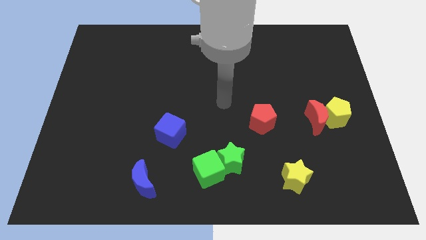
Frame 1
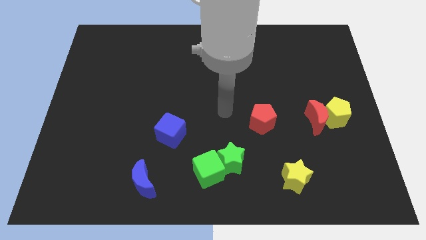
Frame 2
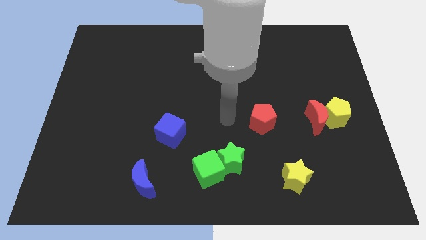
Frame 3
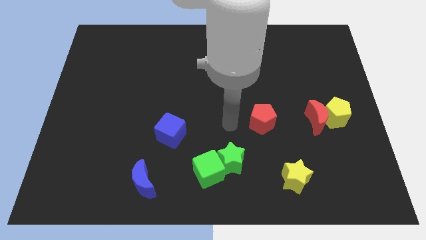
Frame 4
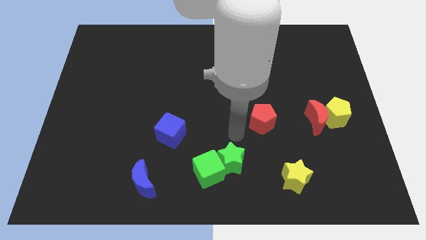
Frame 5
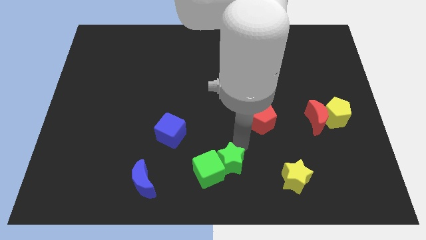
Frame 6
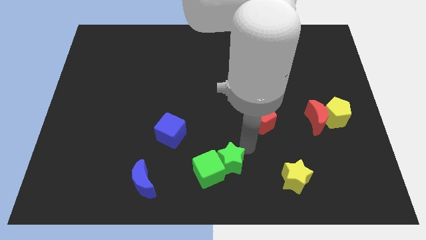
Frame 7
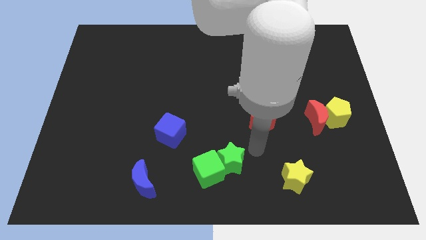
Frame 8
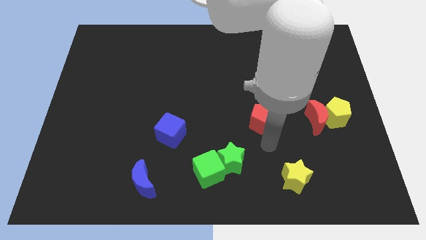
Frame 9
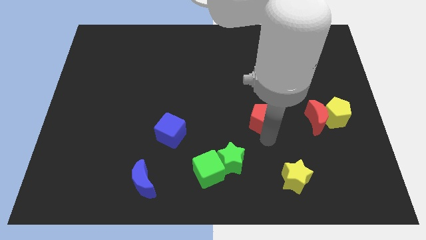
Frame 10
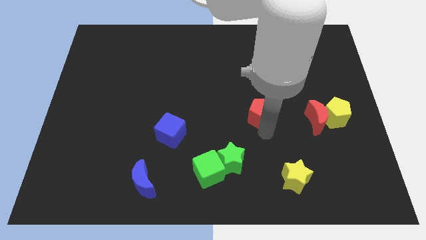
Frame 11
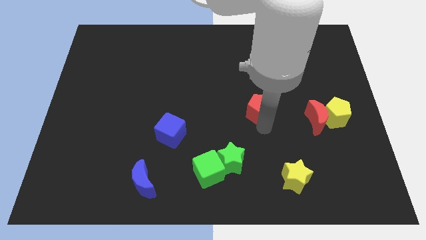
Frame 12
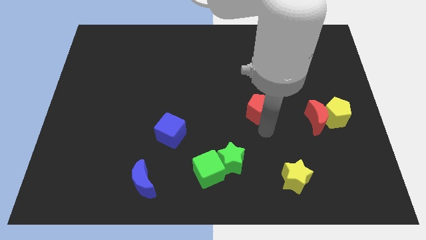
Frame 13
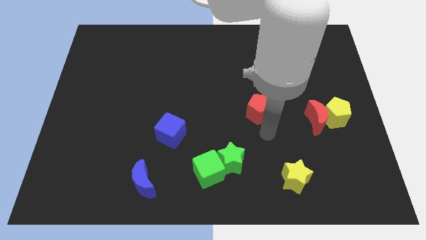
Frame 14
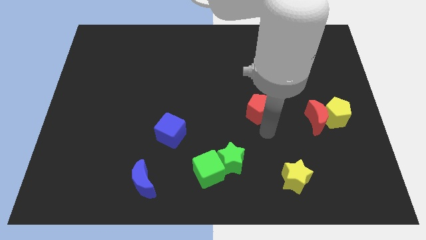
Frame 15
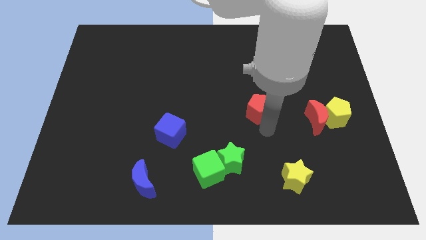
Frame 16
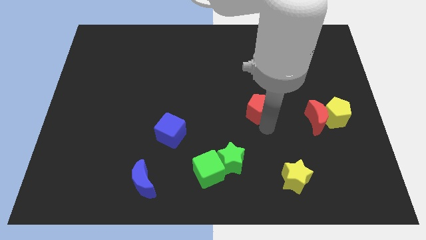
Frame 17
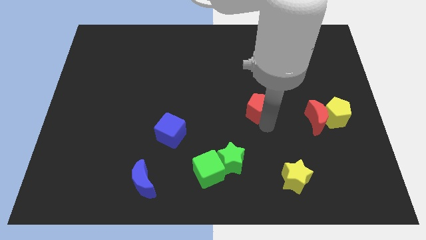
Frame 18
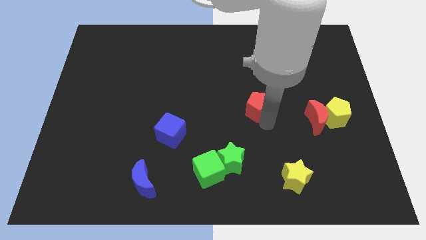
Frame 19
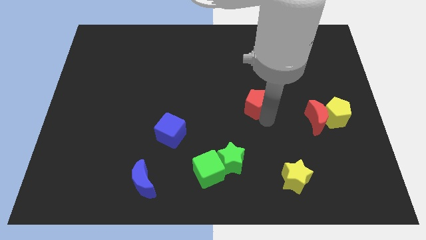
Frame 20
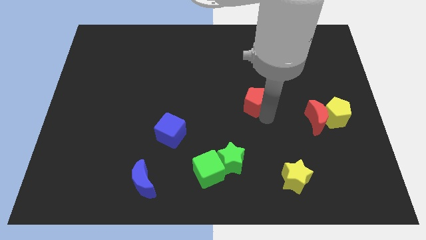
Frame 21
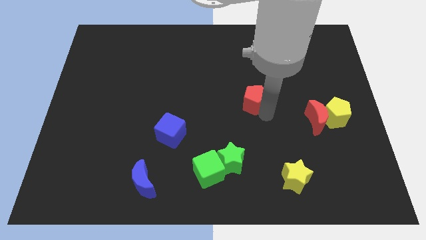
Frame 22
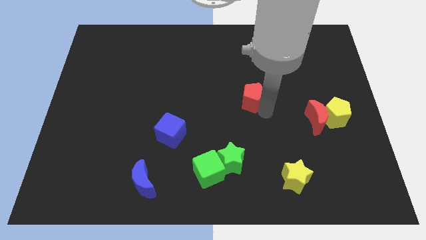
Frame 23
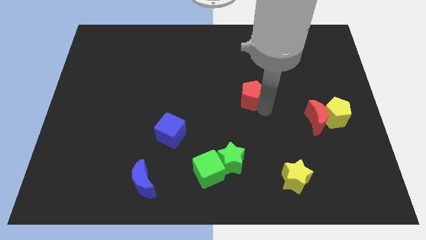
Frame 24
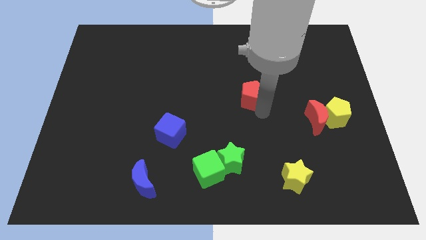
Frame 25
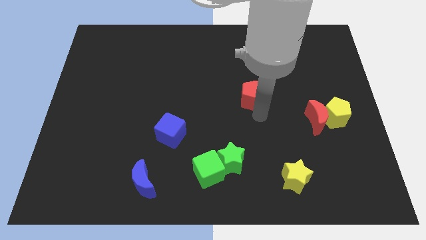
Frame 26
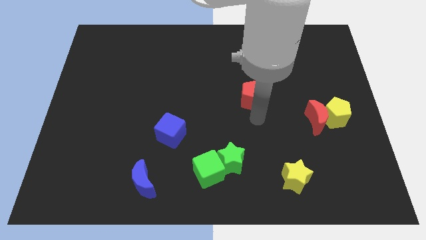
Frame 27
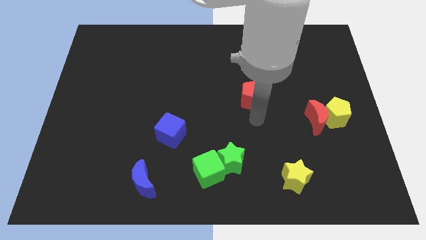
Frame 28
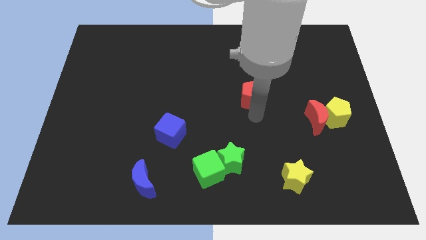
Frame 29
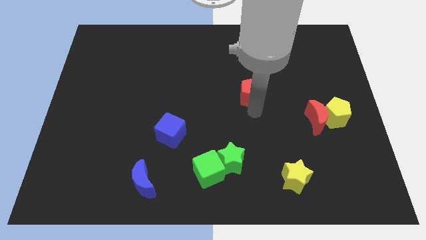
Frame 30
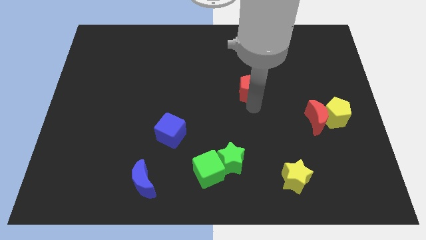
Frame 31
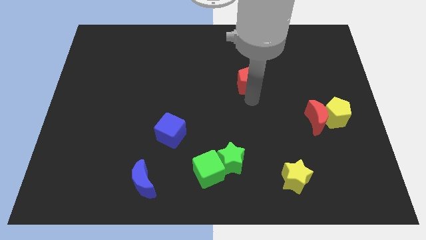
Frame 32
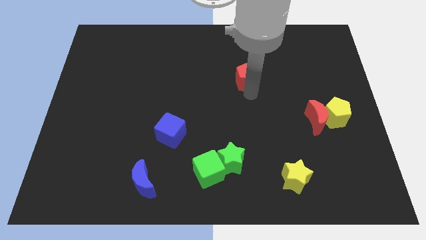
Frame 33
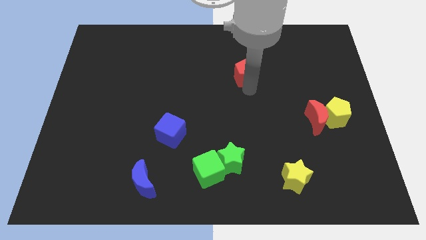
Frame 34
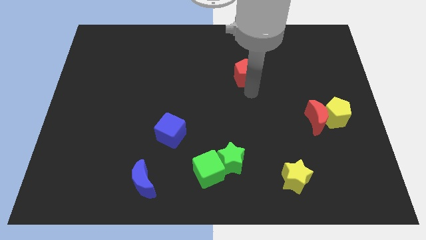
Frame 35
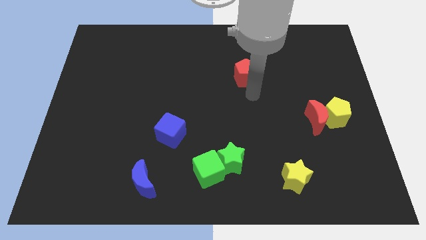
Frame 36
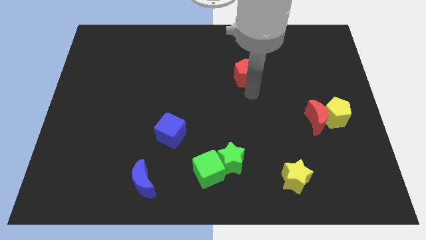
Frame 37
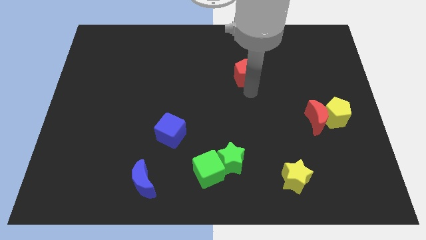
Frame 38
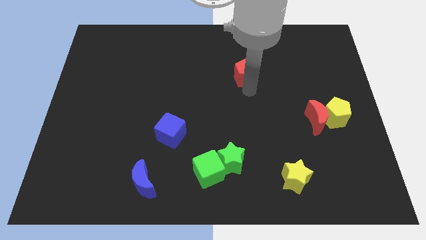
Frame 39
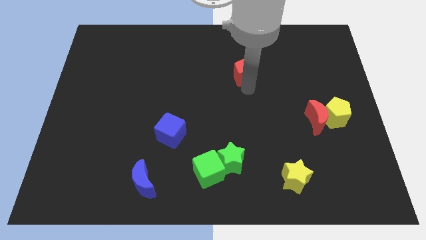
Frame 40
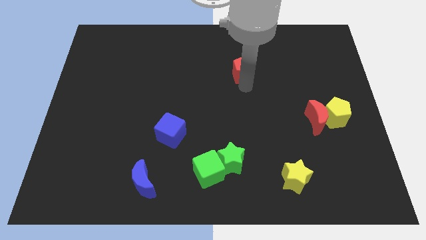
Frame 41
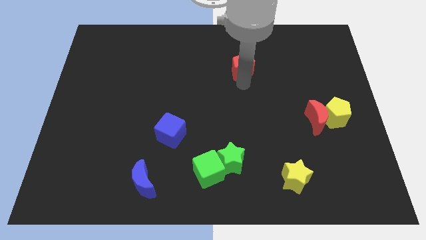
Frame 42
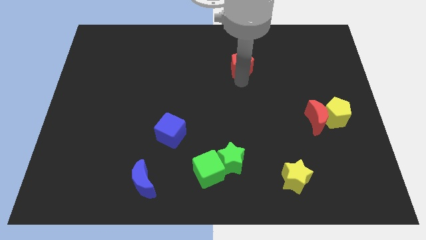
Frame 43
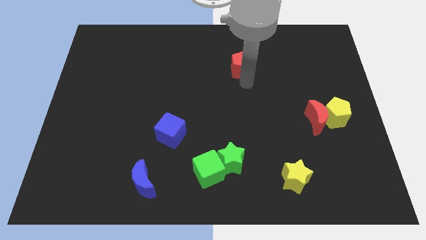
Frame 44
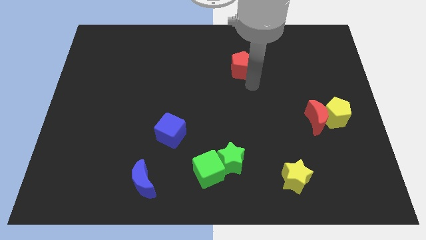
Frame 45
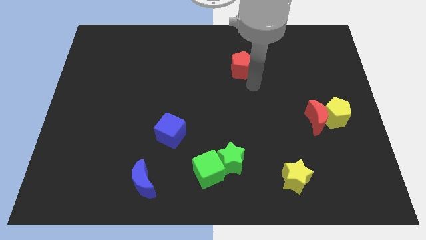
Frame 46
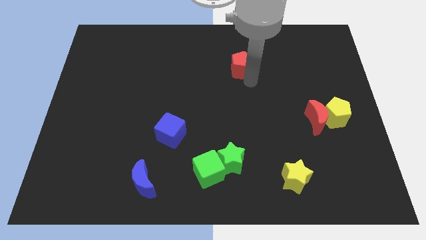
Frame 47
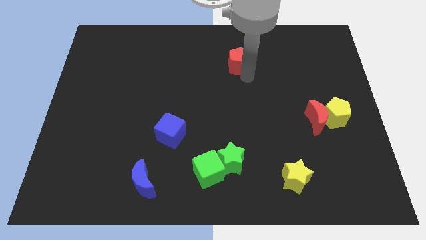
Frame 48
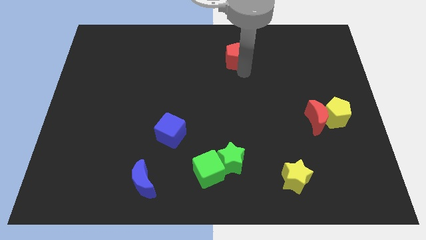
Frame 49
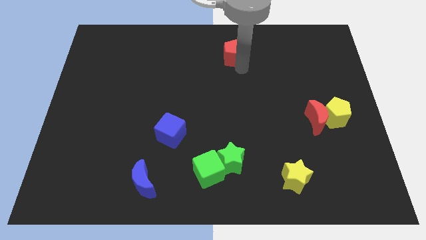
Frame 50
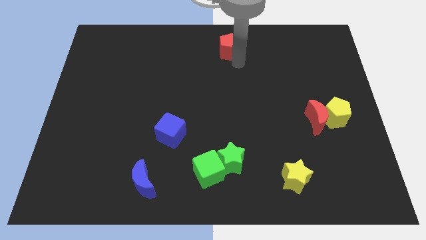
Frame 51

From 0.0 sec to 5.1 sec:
slide the red pentagon to the top

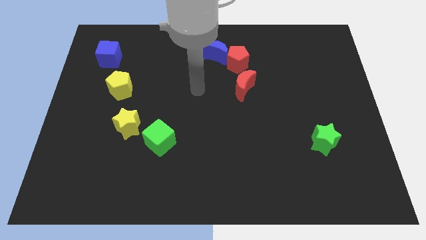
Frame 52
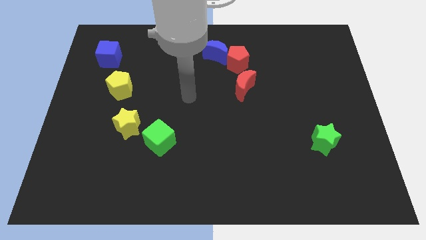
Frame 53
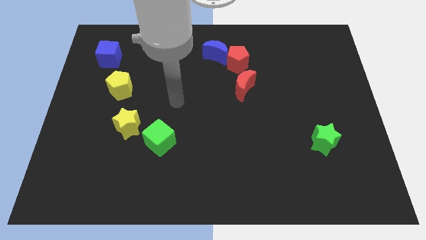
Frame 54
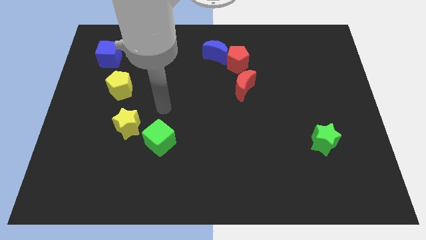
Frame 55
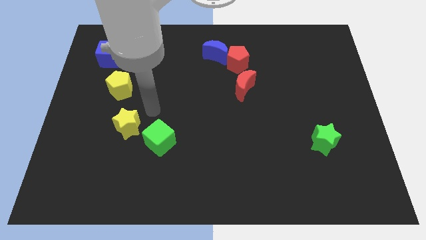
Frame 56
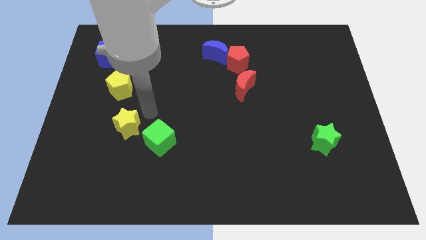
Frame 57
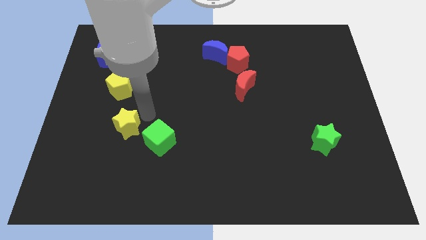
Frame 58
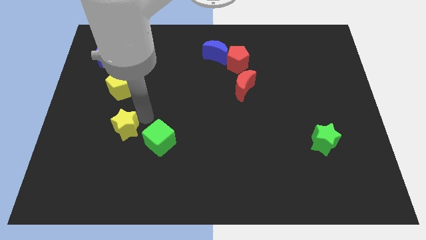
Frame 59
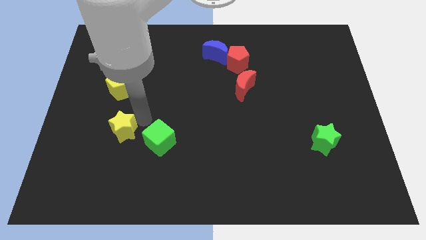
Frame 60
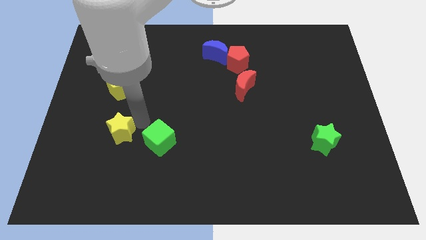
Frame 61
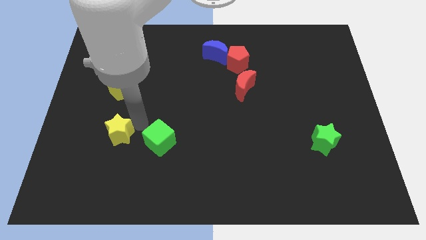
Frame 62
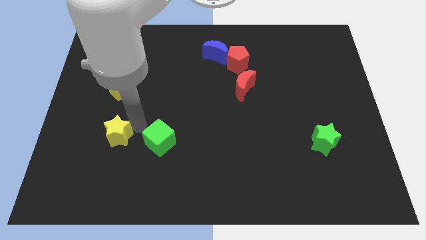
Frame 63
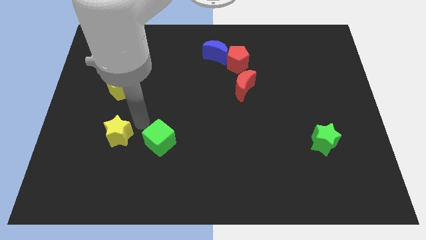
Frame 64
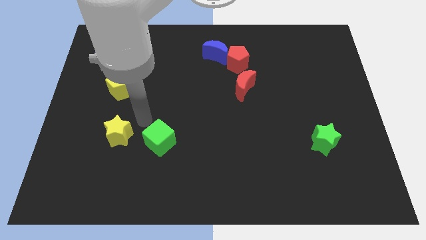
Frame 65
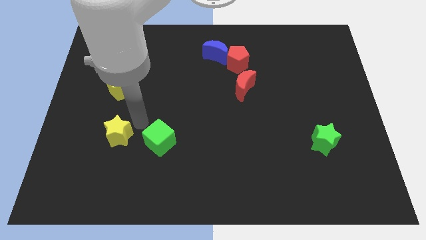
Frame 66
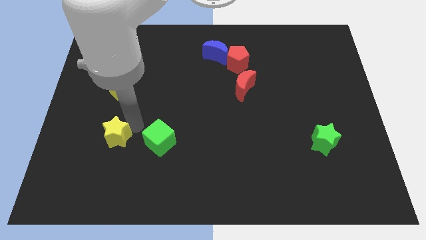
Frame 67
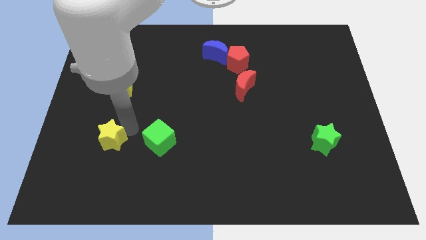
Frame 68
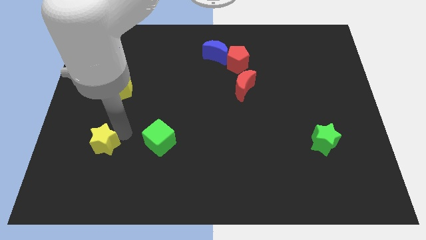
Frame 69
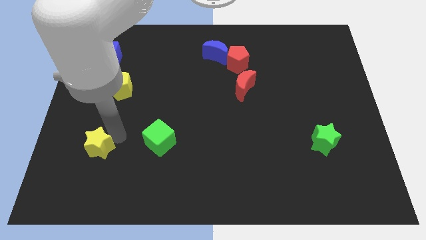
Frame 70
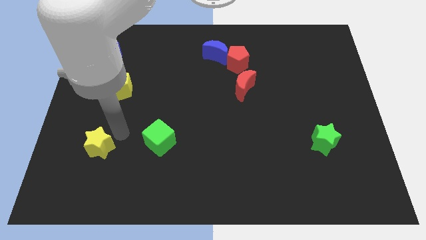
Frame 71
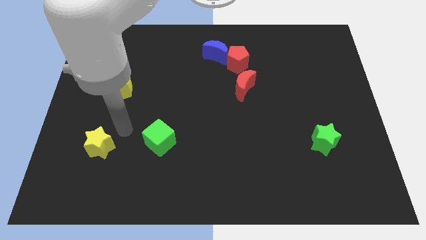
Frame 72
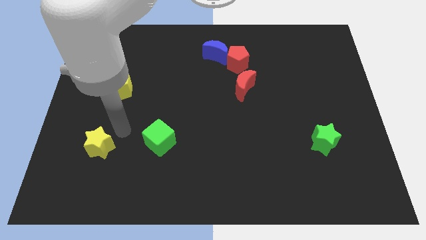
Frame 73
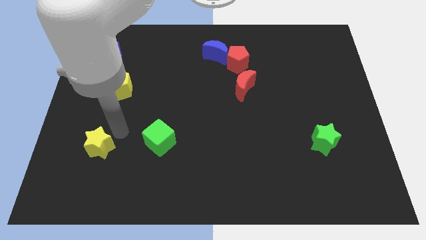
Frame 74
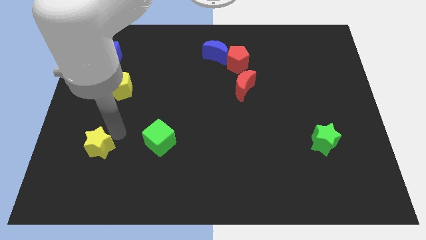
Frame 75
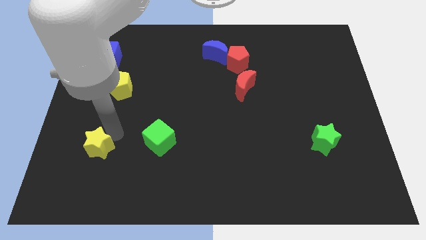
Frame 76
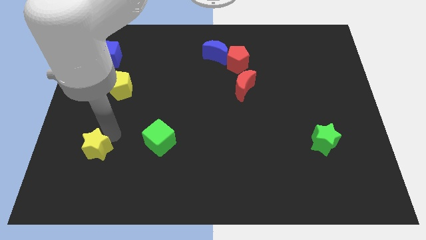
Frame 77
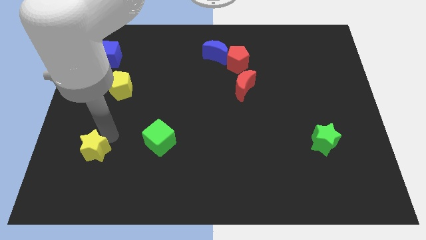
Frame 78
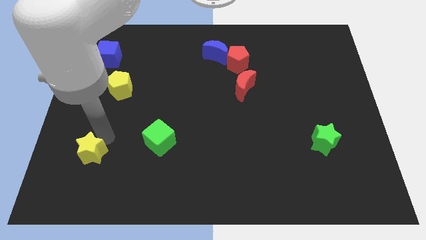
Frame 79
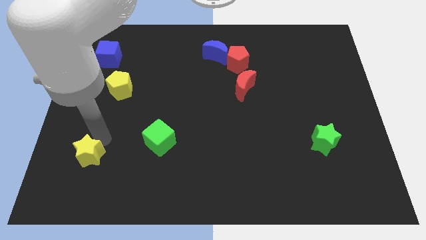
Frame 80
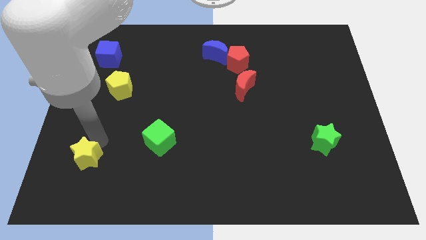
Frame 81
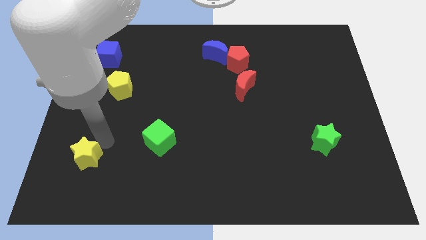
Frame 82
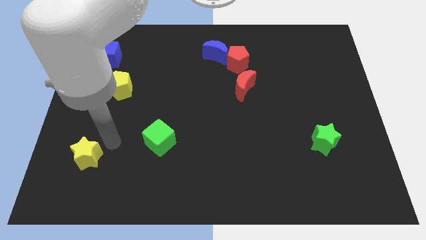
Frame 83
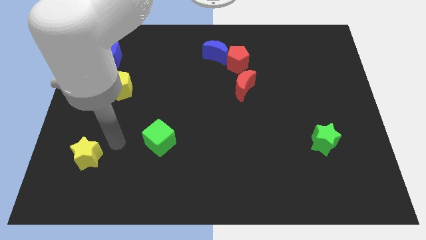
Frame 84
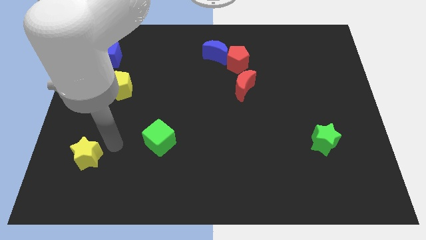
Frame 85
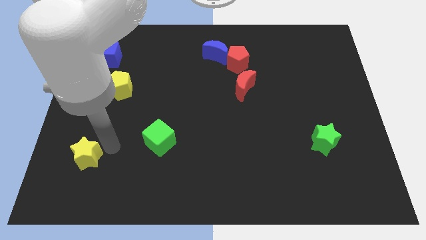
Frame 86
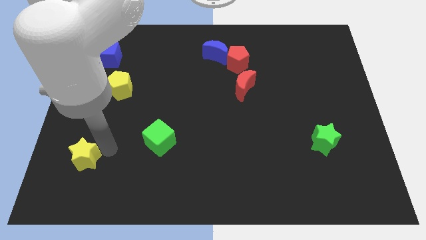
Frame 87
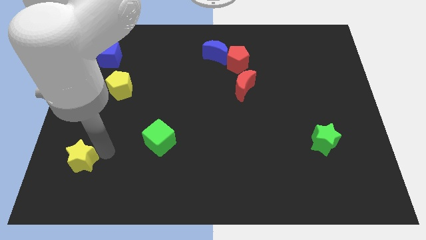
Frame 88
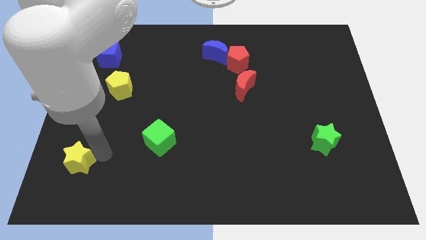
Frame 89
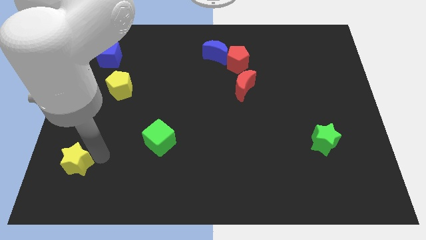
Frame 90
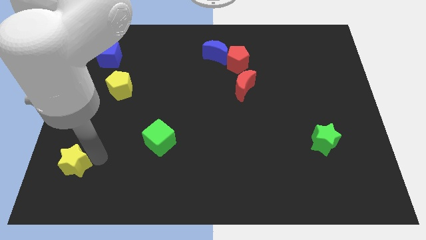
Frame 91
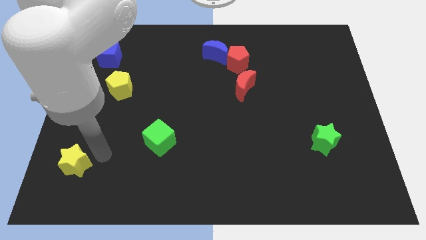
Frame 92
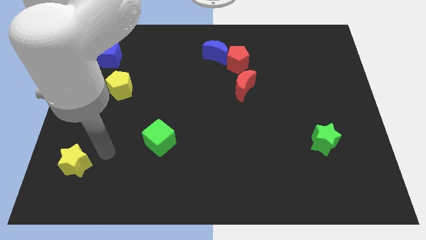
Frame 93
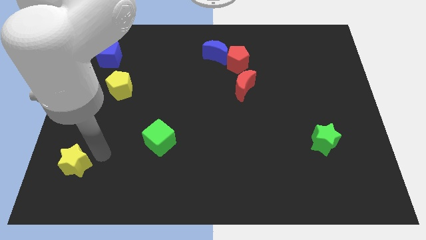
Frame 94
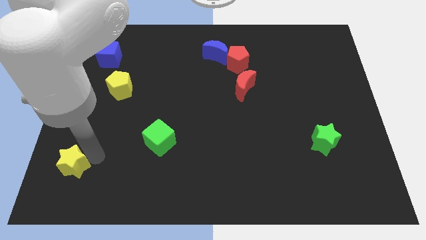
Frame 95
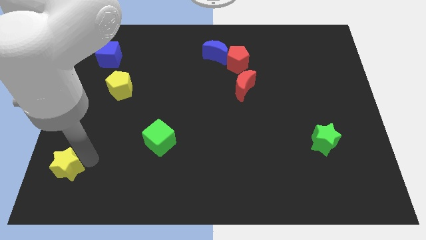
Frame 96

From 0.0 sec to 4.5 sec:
put the yellow star to the bottom left
